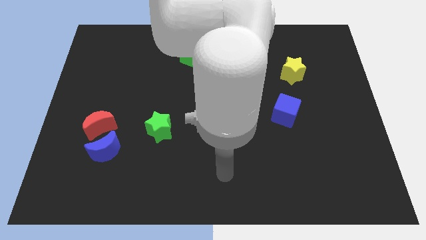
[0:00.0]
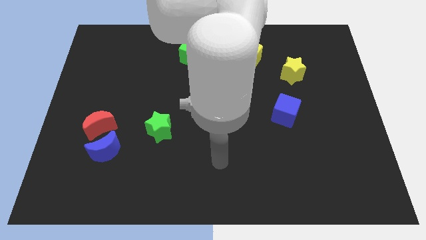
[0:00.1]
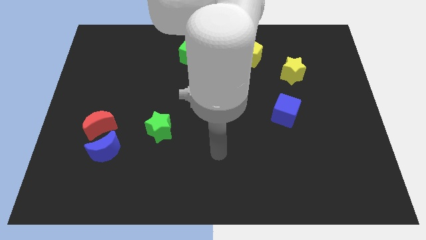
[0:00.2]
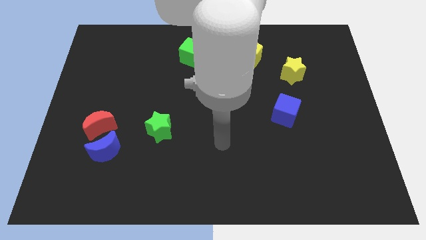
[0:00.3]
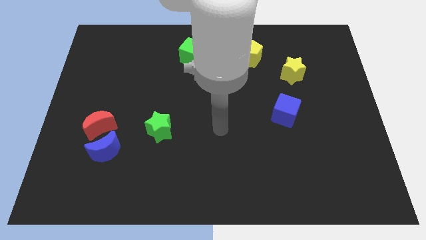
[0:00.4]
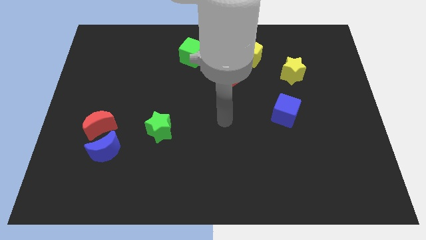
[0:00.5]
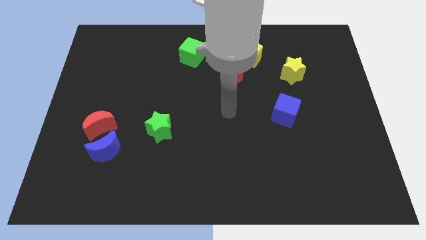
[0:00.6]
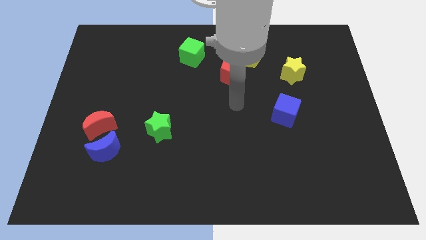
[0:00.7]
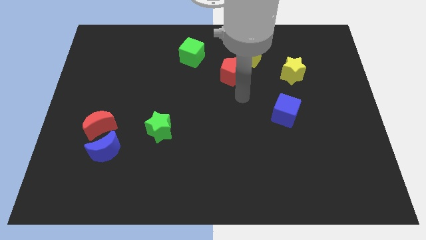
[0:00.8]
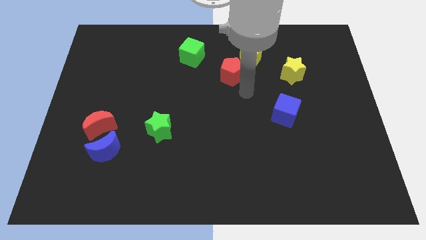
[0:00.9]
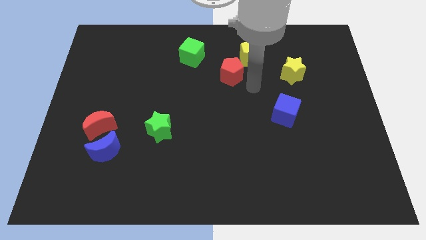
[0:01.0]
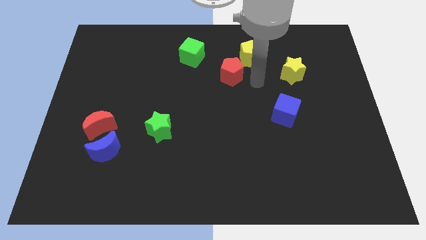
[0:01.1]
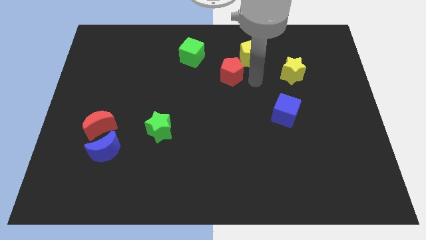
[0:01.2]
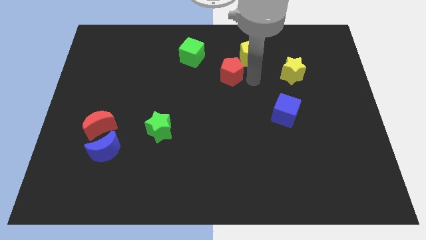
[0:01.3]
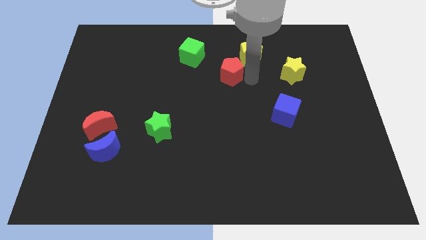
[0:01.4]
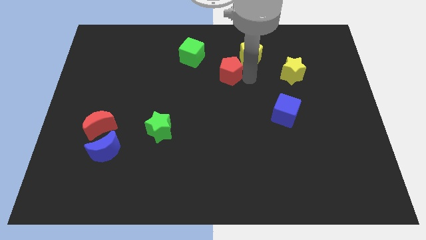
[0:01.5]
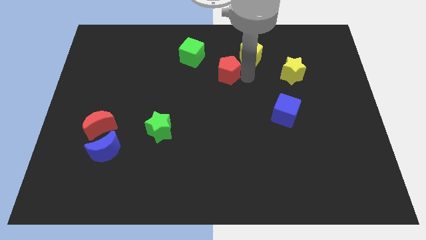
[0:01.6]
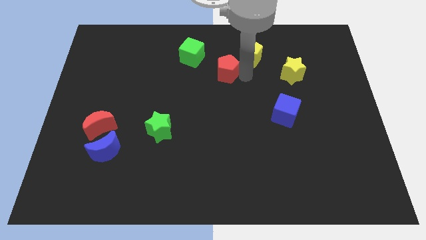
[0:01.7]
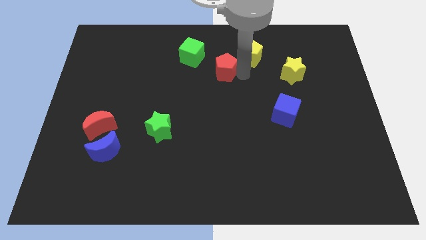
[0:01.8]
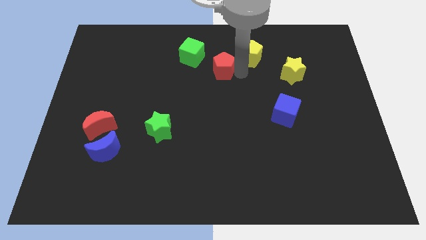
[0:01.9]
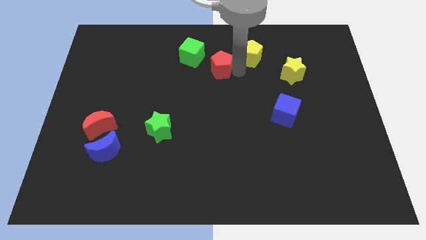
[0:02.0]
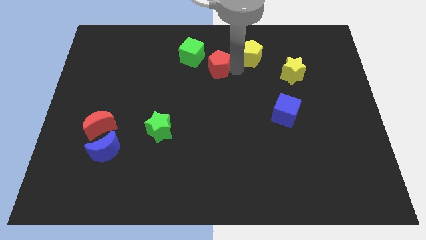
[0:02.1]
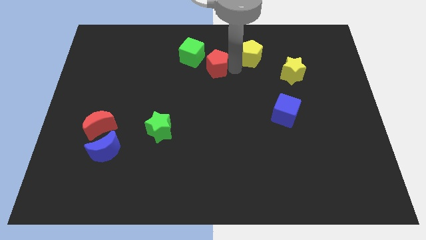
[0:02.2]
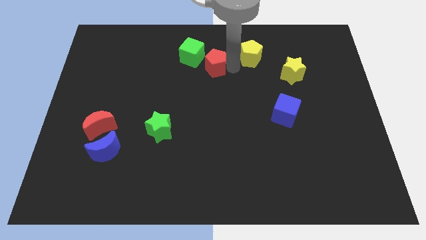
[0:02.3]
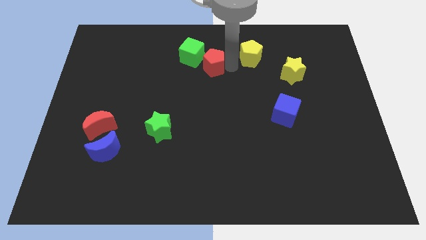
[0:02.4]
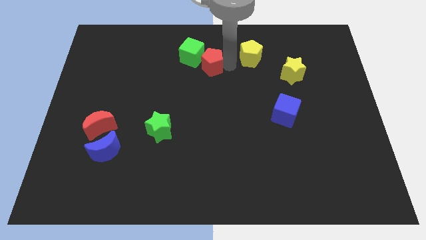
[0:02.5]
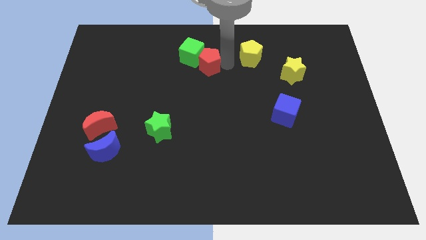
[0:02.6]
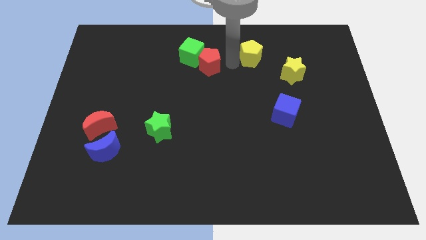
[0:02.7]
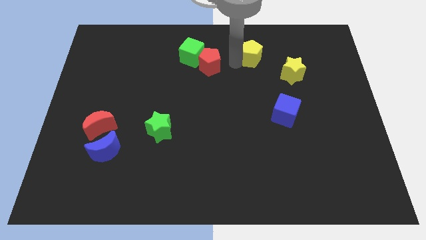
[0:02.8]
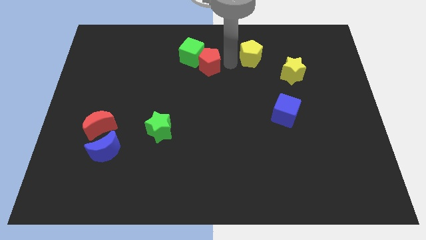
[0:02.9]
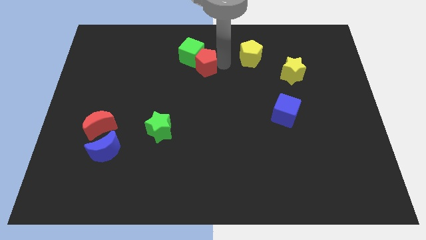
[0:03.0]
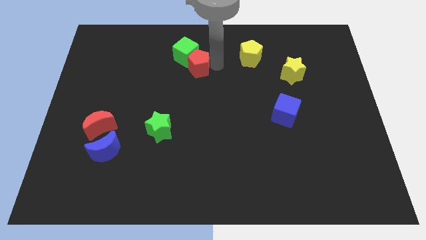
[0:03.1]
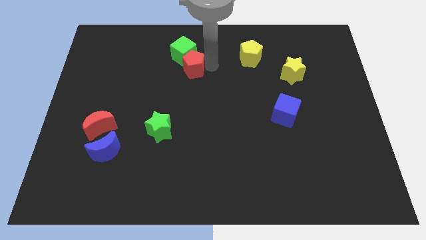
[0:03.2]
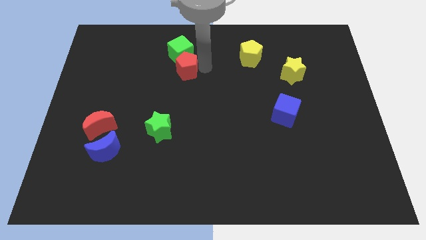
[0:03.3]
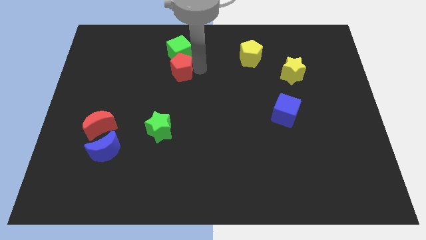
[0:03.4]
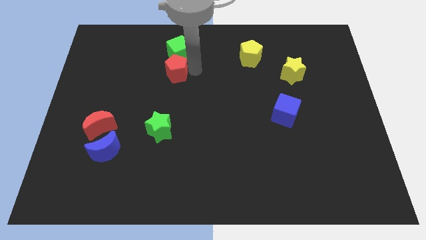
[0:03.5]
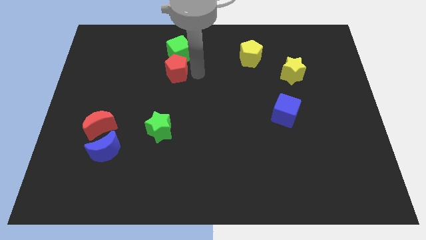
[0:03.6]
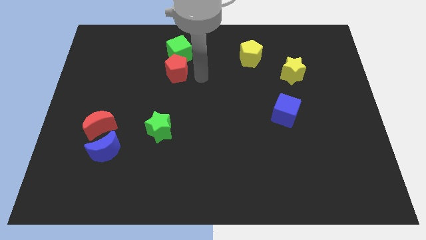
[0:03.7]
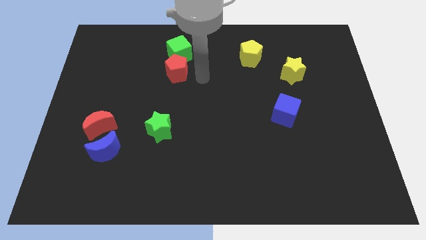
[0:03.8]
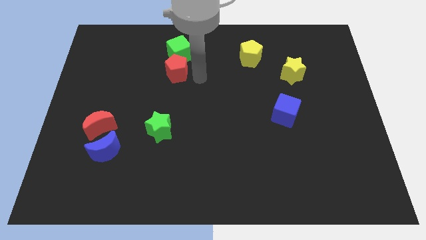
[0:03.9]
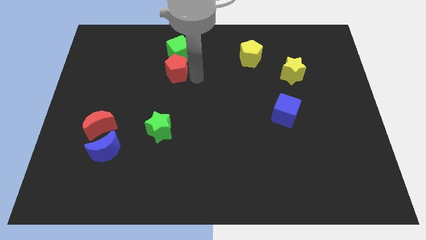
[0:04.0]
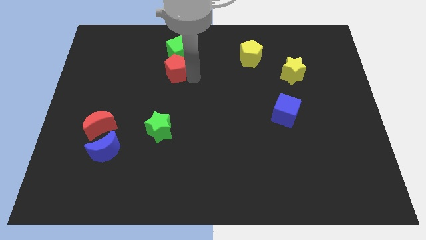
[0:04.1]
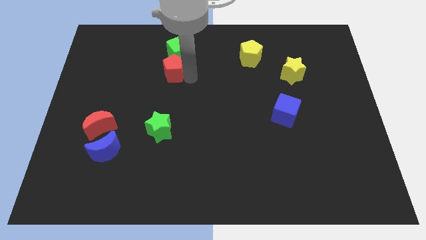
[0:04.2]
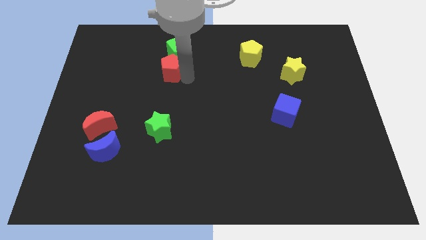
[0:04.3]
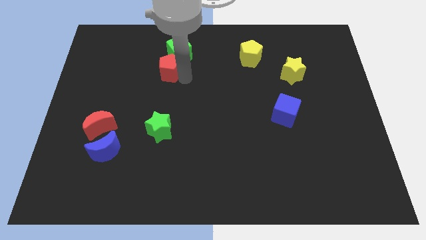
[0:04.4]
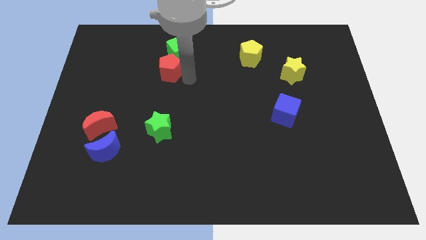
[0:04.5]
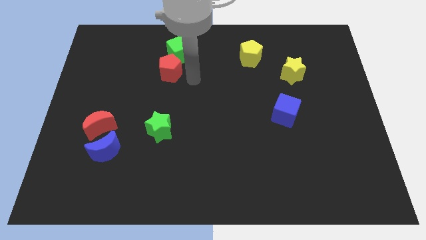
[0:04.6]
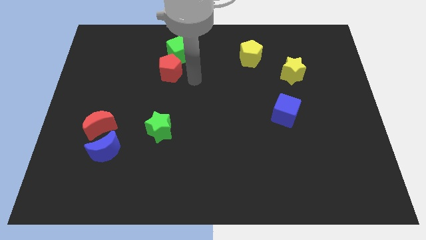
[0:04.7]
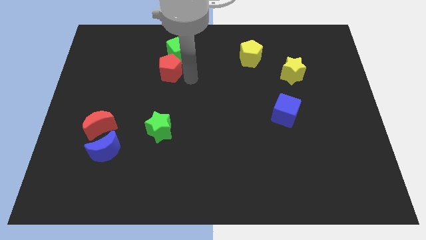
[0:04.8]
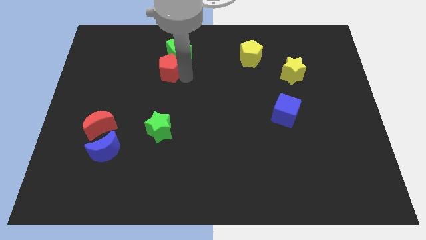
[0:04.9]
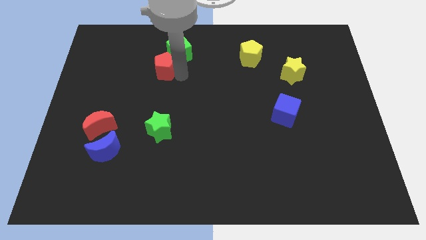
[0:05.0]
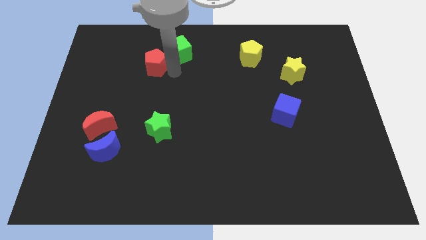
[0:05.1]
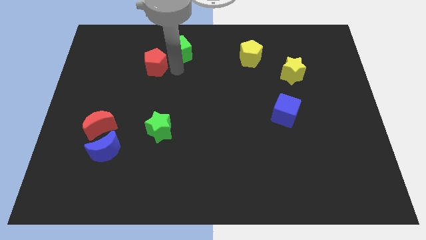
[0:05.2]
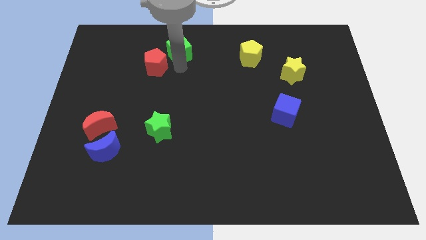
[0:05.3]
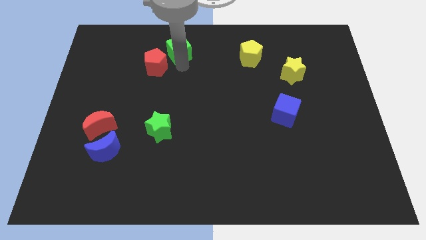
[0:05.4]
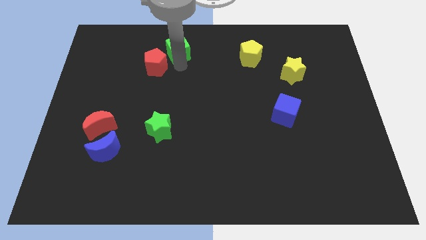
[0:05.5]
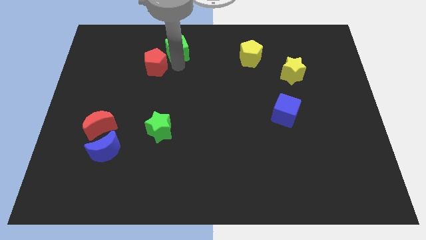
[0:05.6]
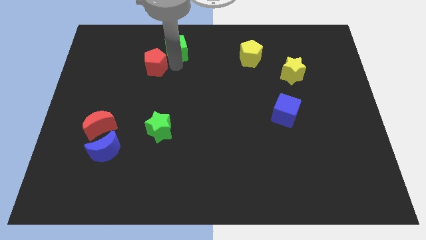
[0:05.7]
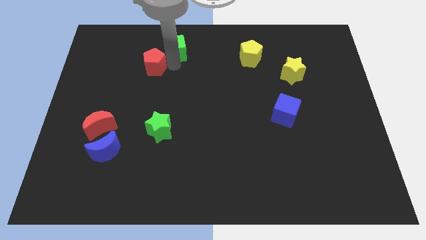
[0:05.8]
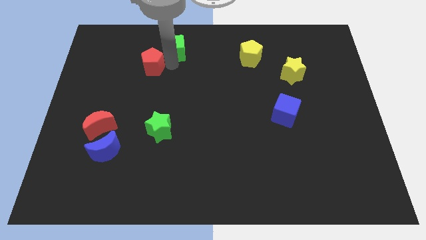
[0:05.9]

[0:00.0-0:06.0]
slide the red pentagon left

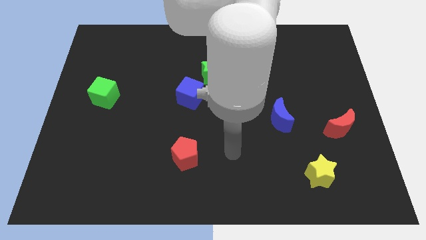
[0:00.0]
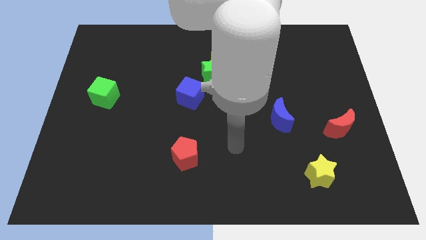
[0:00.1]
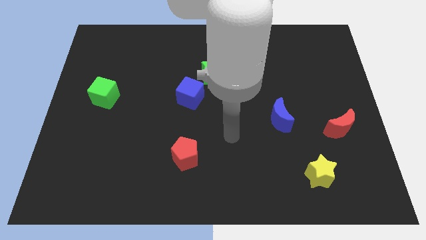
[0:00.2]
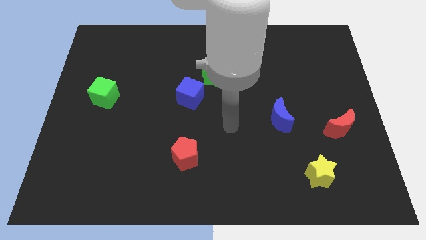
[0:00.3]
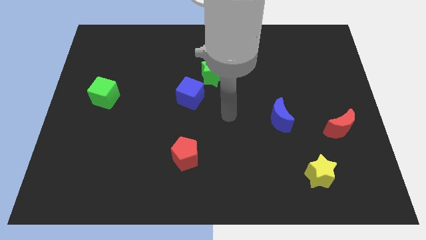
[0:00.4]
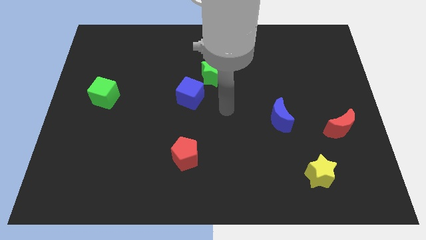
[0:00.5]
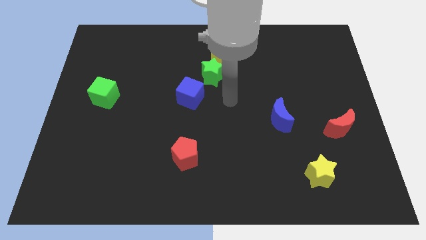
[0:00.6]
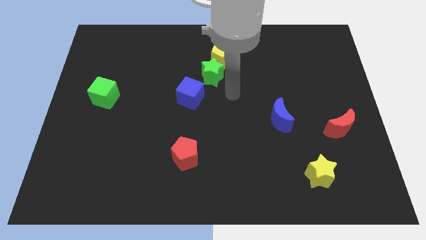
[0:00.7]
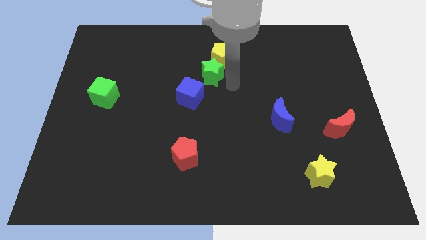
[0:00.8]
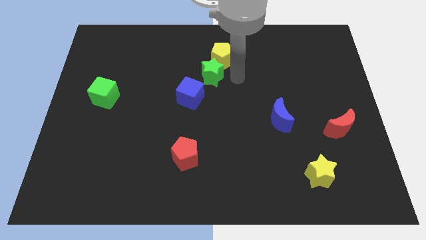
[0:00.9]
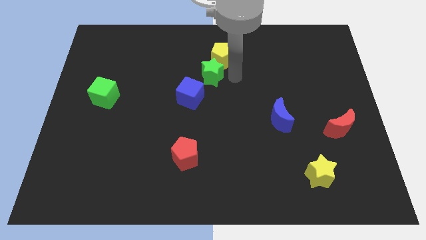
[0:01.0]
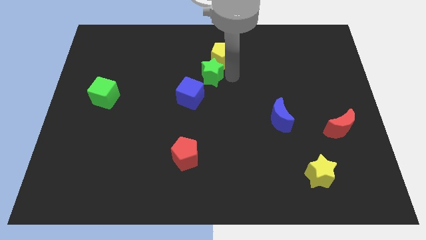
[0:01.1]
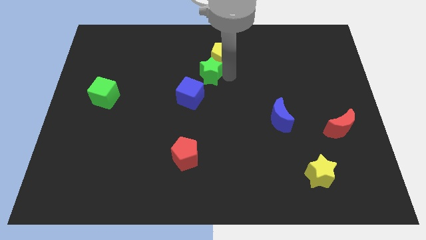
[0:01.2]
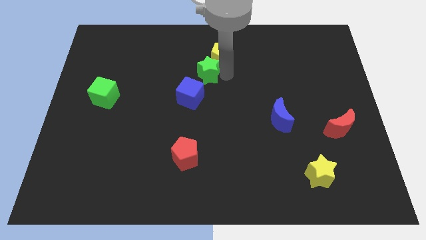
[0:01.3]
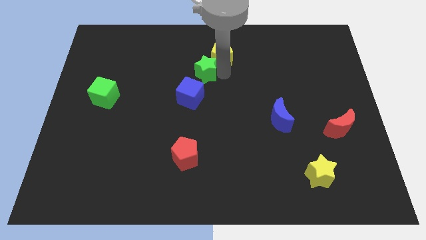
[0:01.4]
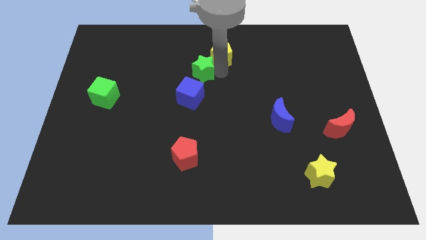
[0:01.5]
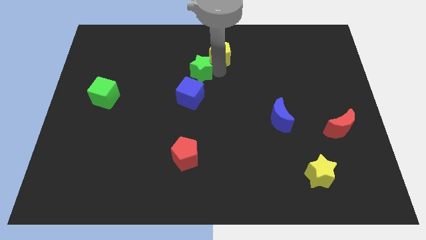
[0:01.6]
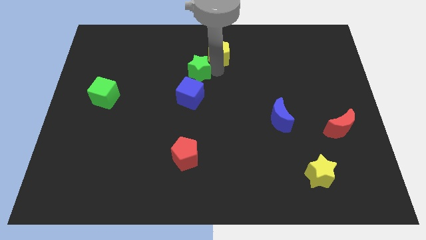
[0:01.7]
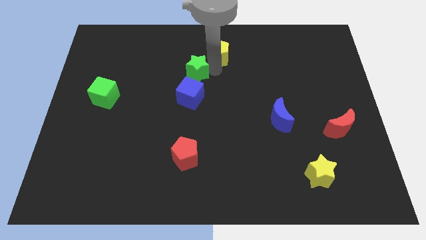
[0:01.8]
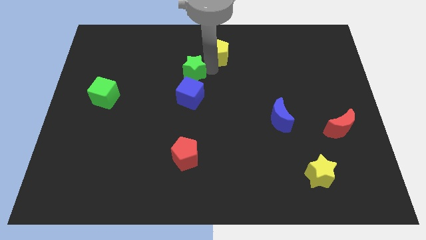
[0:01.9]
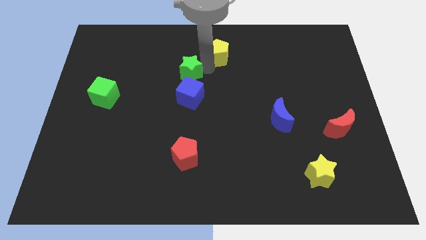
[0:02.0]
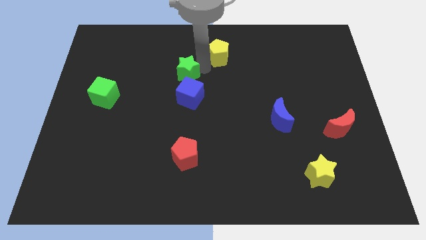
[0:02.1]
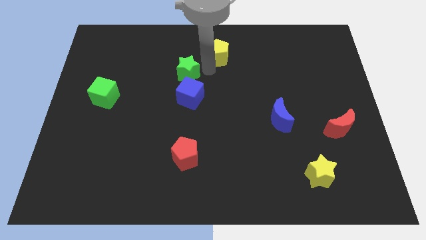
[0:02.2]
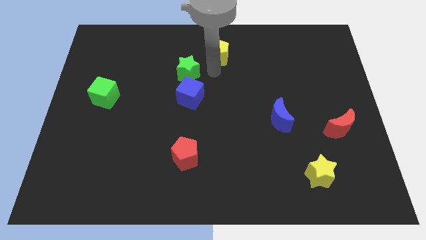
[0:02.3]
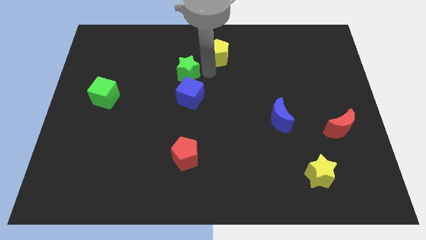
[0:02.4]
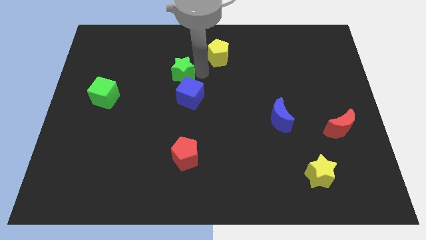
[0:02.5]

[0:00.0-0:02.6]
move the green star to the left a bit
